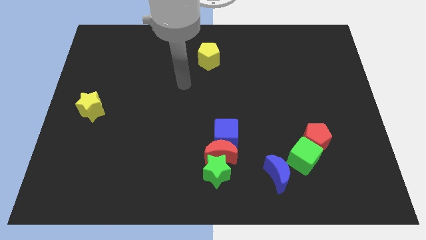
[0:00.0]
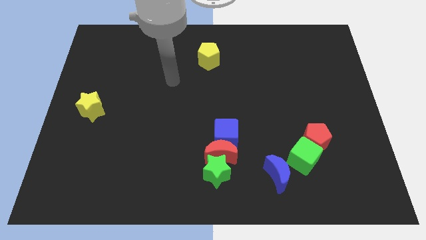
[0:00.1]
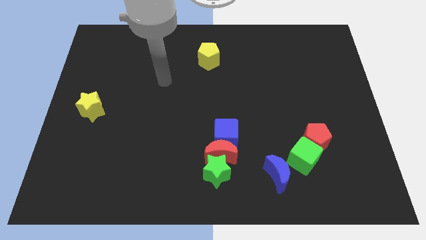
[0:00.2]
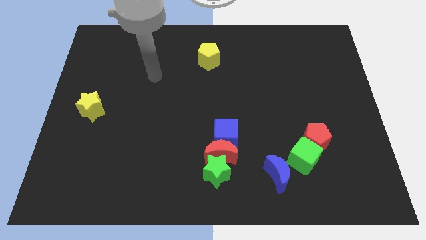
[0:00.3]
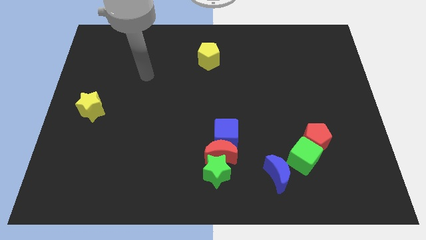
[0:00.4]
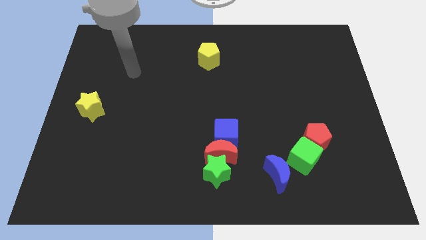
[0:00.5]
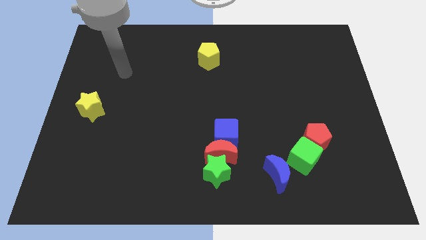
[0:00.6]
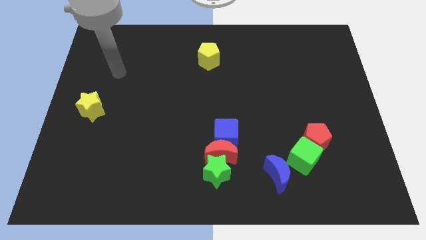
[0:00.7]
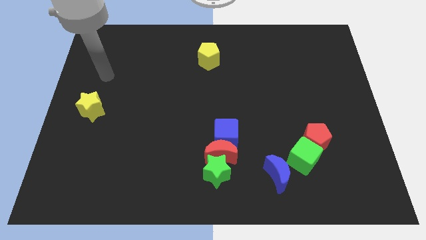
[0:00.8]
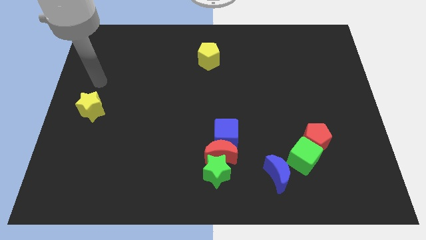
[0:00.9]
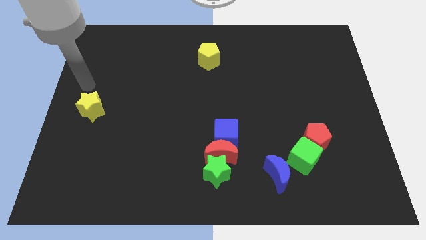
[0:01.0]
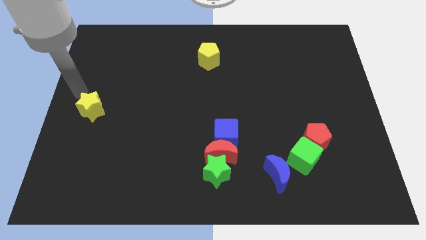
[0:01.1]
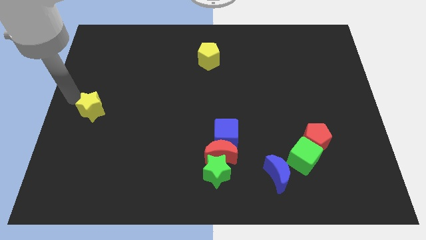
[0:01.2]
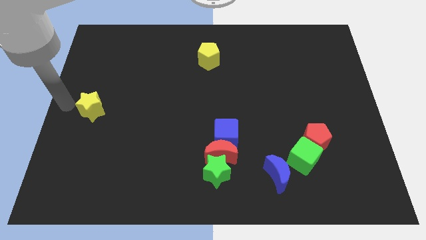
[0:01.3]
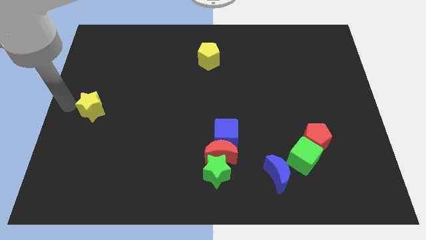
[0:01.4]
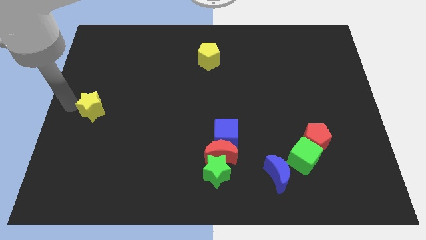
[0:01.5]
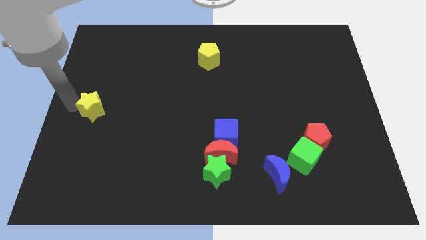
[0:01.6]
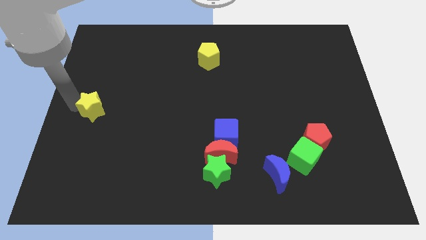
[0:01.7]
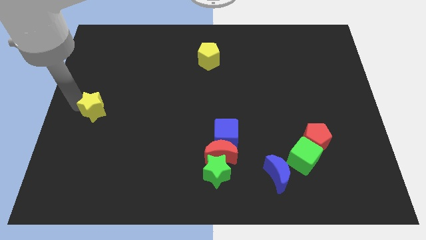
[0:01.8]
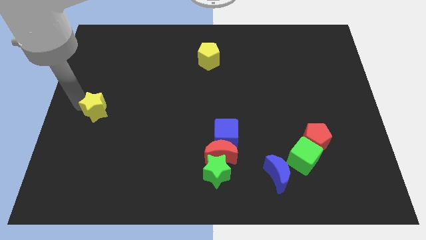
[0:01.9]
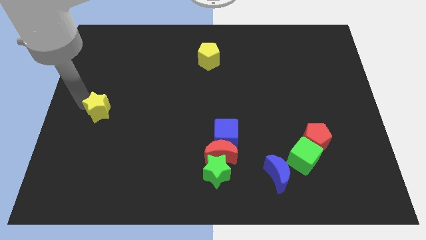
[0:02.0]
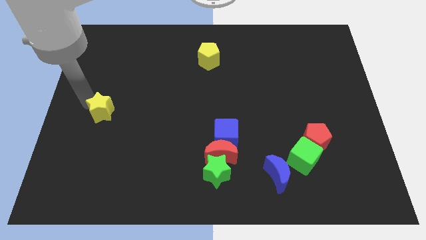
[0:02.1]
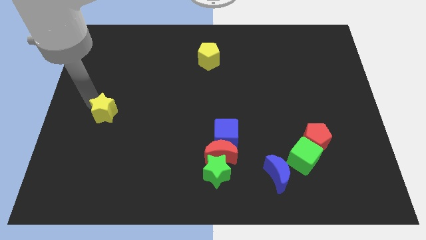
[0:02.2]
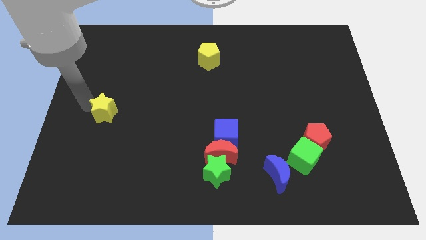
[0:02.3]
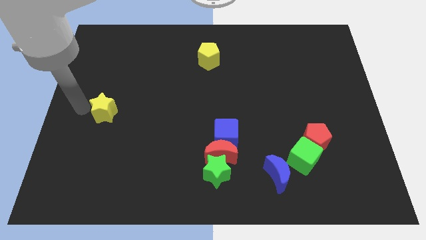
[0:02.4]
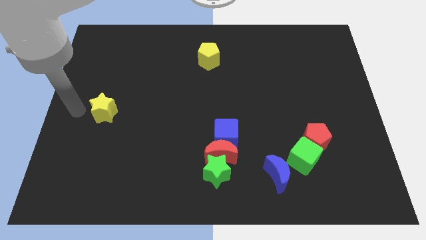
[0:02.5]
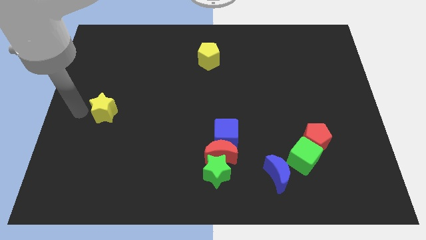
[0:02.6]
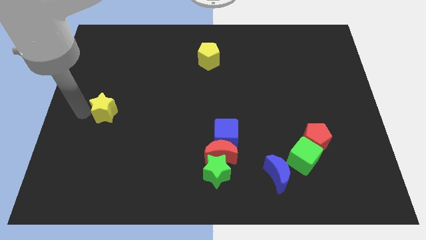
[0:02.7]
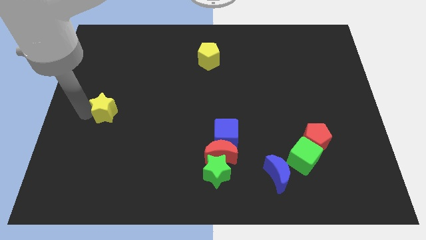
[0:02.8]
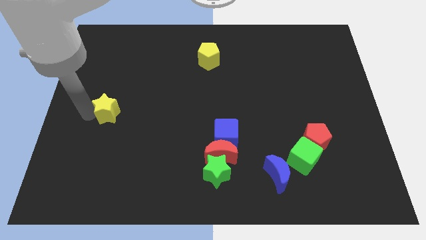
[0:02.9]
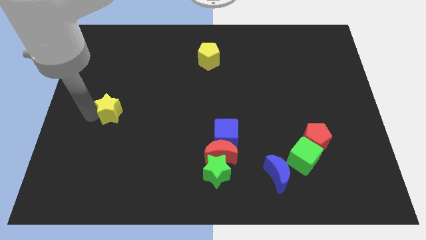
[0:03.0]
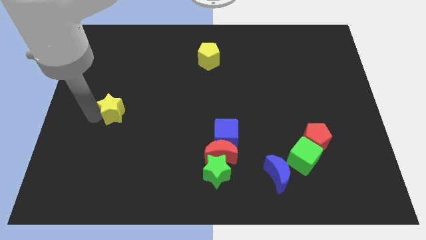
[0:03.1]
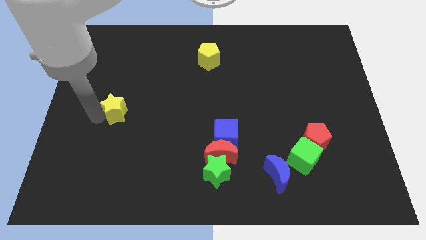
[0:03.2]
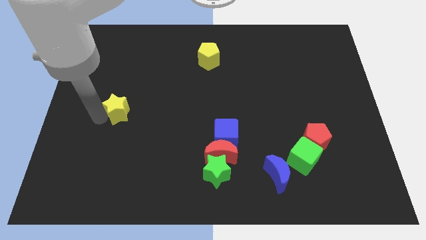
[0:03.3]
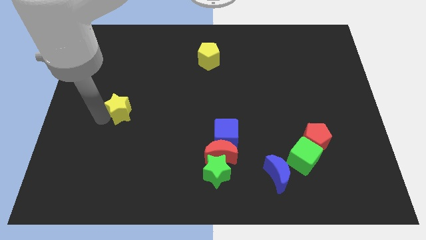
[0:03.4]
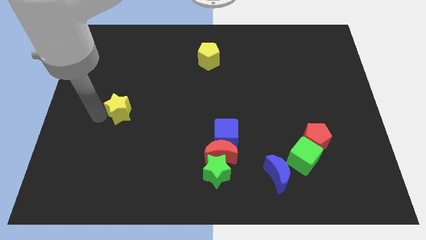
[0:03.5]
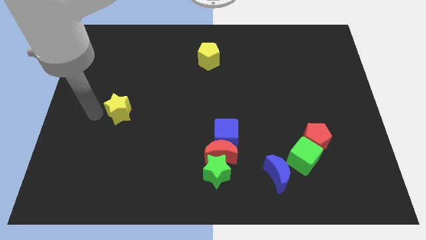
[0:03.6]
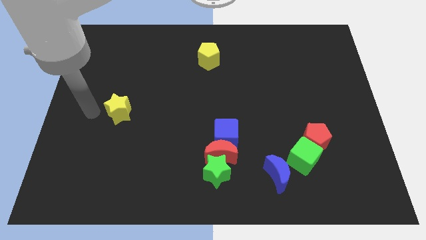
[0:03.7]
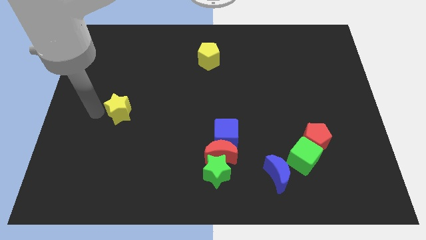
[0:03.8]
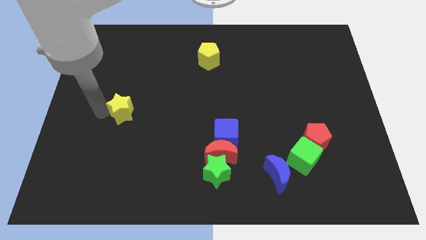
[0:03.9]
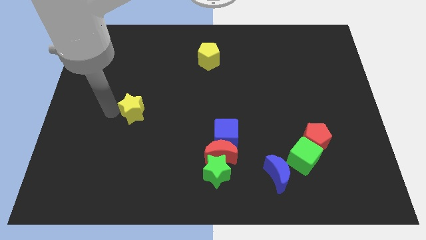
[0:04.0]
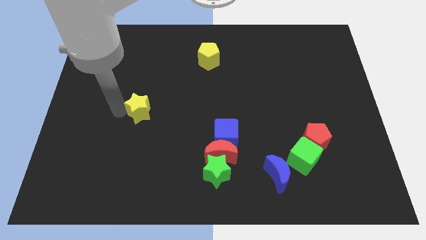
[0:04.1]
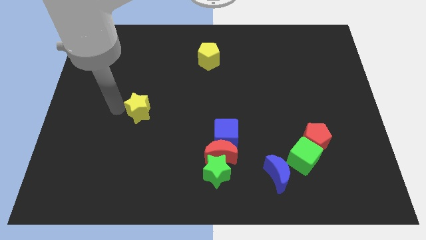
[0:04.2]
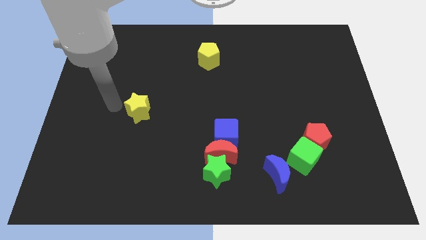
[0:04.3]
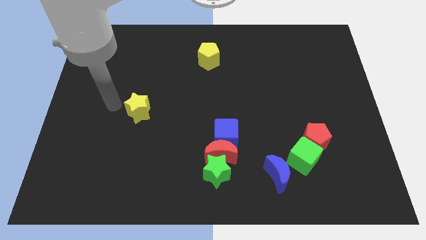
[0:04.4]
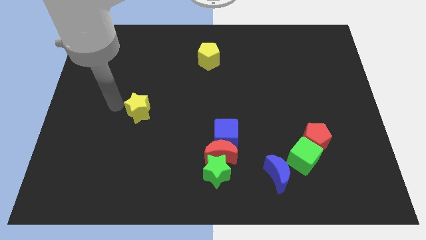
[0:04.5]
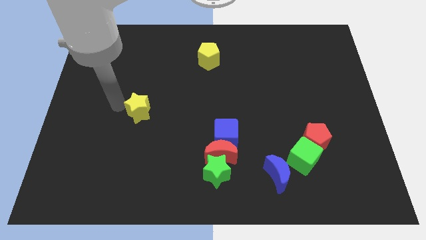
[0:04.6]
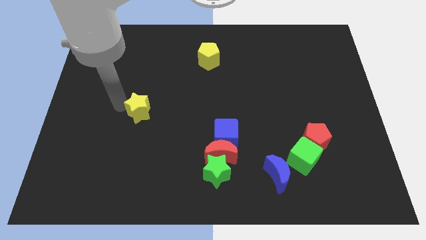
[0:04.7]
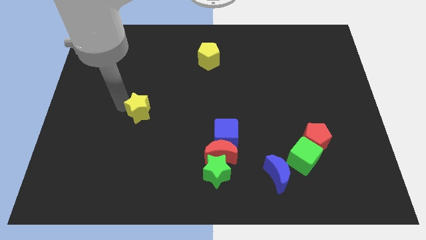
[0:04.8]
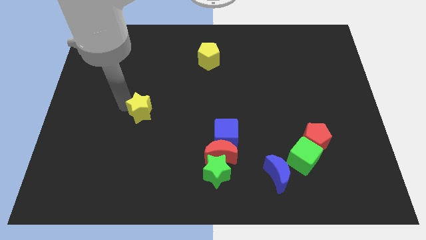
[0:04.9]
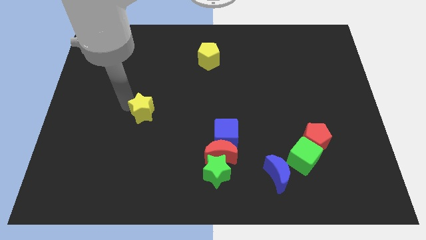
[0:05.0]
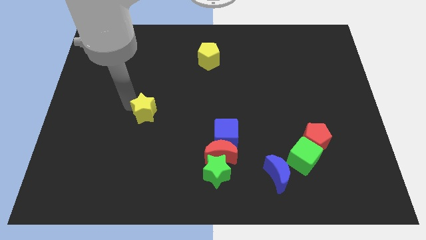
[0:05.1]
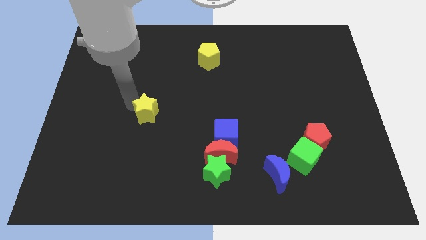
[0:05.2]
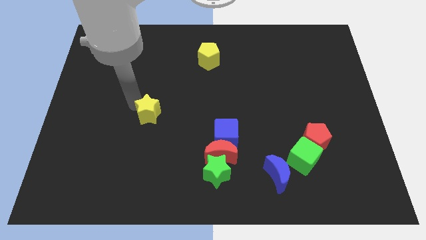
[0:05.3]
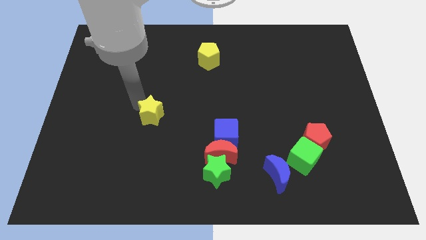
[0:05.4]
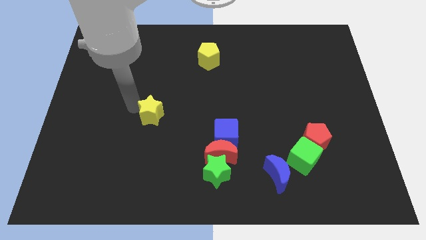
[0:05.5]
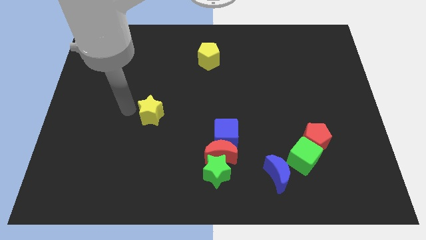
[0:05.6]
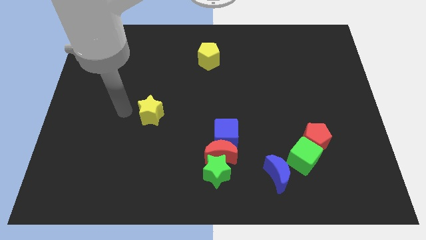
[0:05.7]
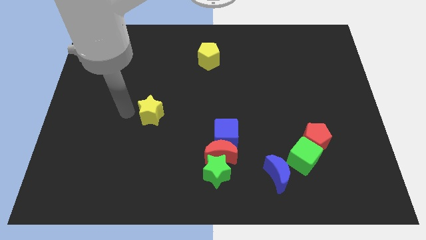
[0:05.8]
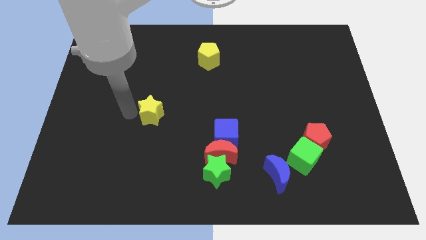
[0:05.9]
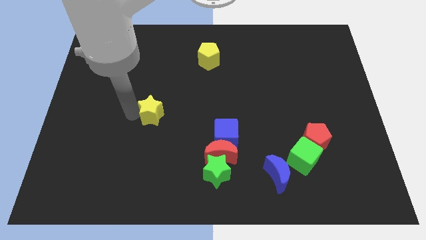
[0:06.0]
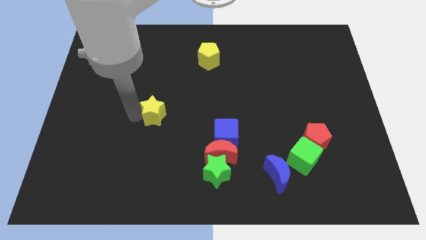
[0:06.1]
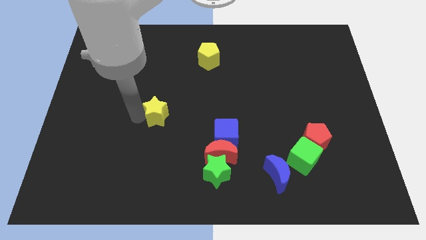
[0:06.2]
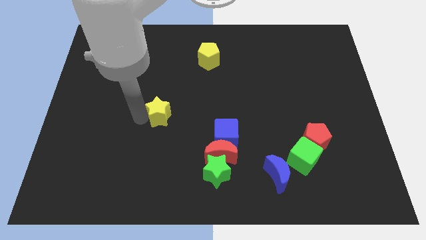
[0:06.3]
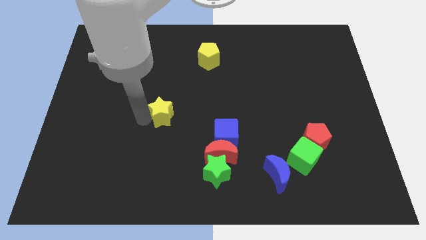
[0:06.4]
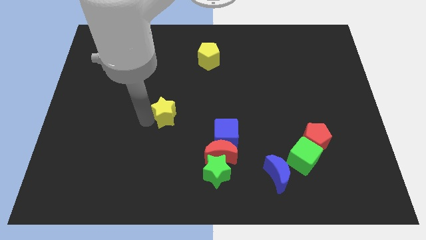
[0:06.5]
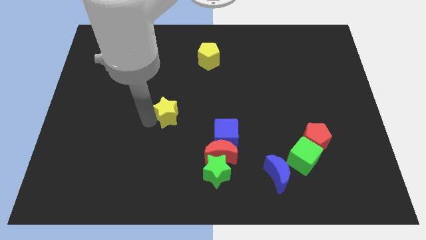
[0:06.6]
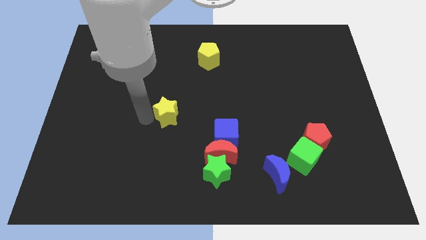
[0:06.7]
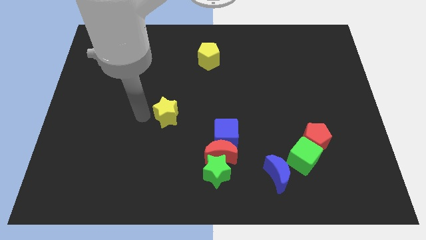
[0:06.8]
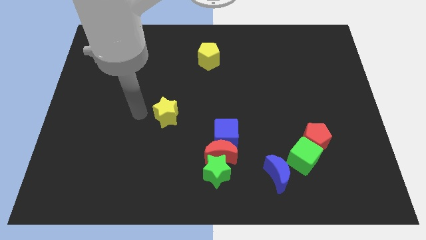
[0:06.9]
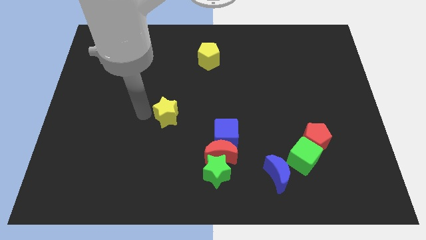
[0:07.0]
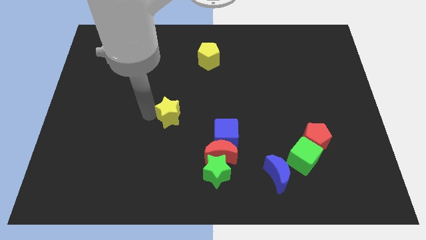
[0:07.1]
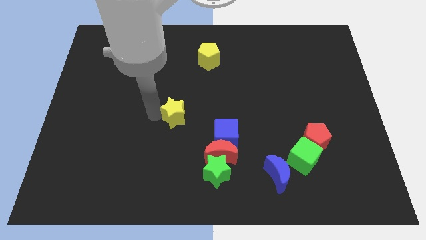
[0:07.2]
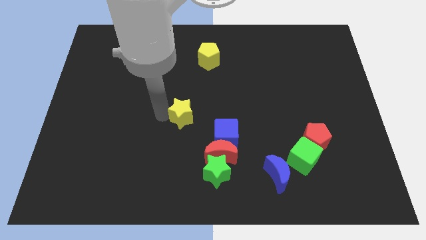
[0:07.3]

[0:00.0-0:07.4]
move the yellow star diagonally up and to the left of the blue cube
